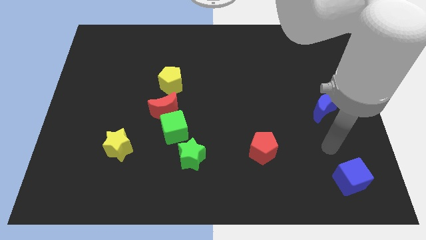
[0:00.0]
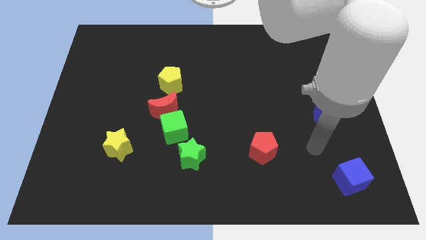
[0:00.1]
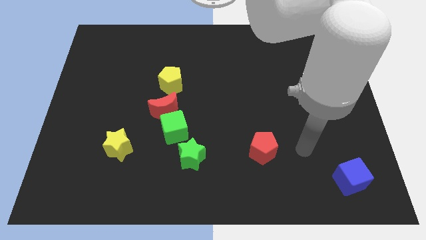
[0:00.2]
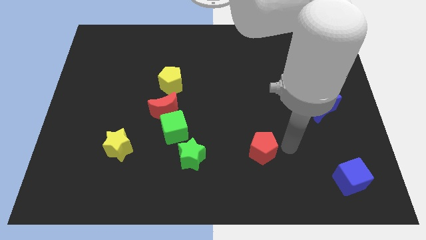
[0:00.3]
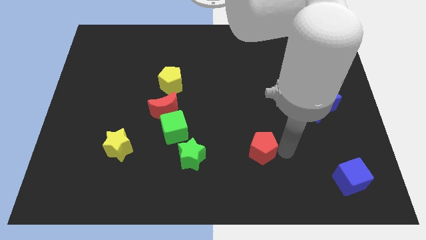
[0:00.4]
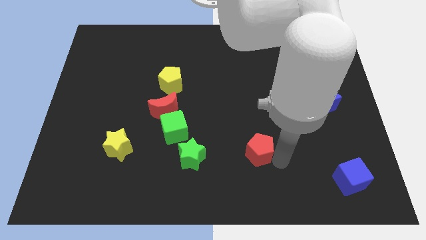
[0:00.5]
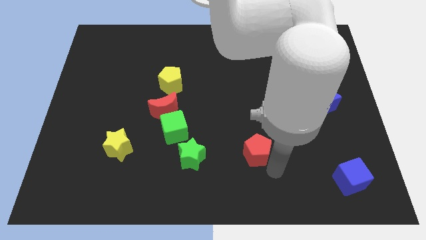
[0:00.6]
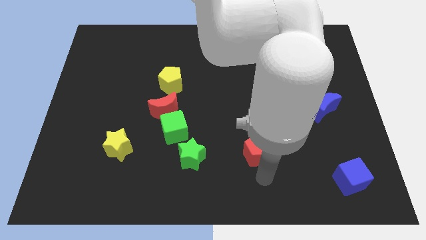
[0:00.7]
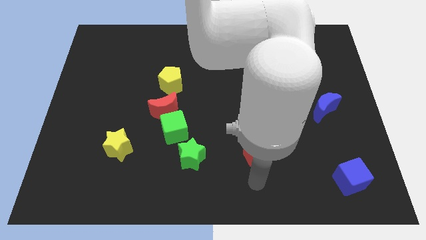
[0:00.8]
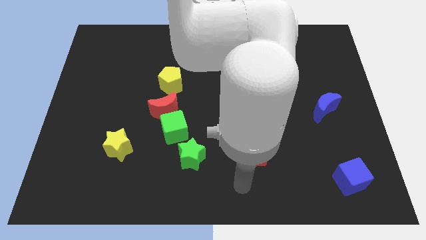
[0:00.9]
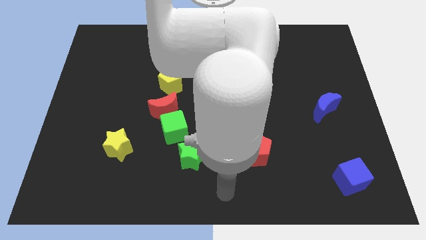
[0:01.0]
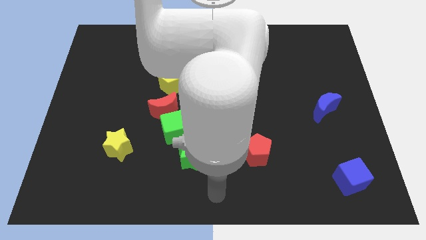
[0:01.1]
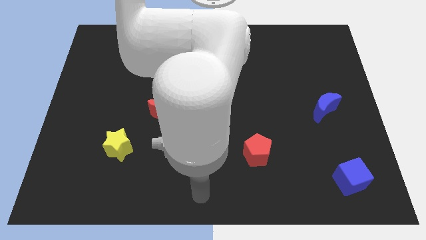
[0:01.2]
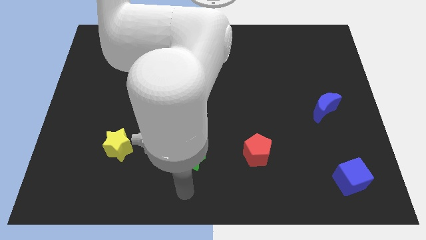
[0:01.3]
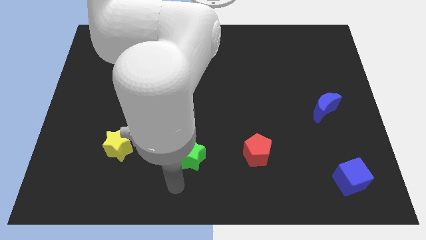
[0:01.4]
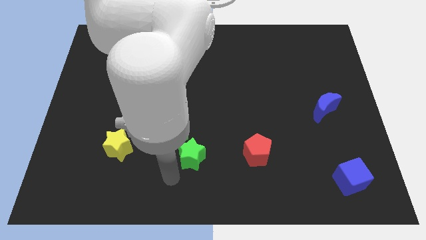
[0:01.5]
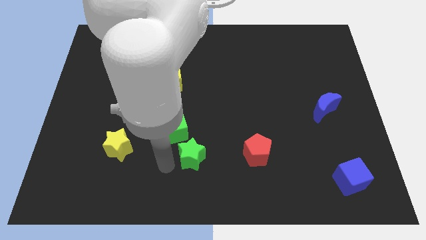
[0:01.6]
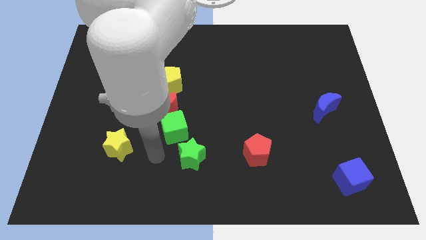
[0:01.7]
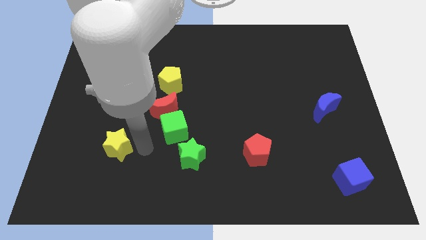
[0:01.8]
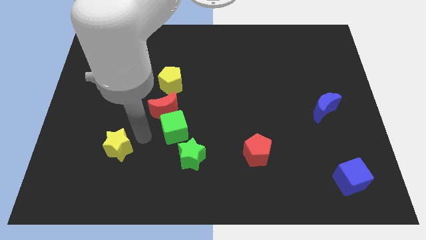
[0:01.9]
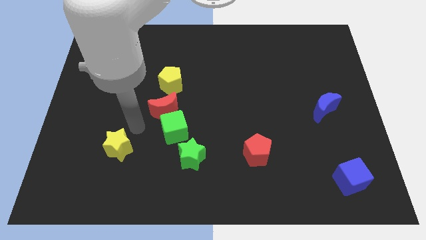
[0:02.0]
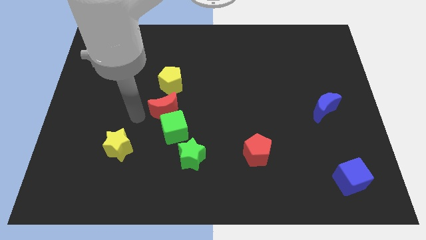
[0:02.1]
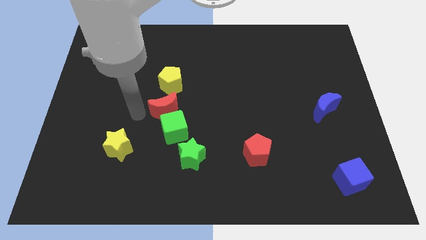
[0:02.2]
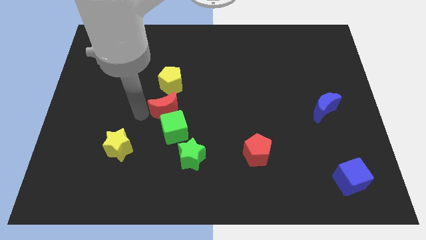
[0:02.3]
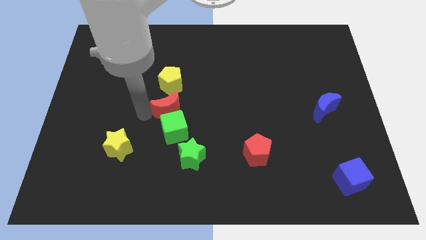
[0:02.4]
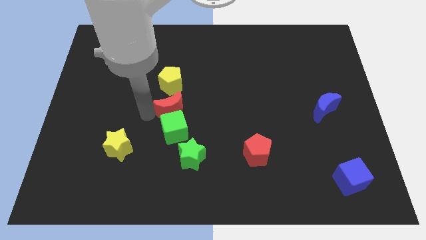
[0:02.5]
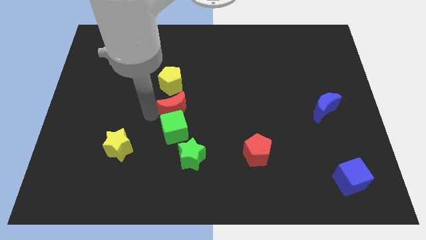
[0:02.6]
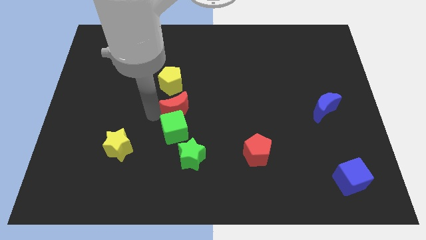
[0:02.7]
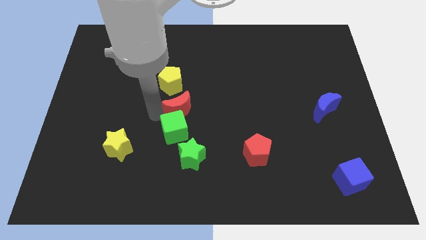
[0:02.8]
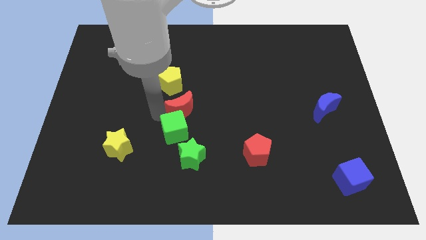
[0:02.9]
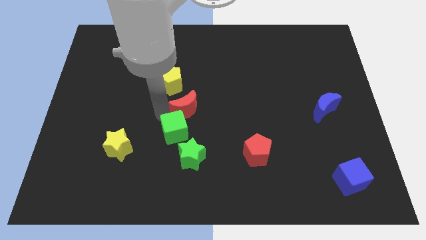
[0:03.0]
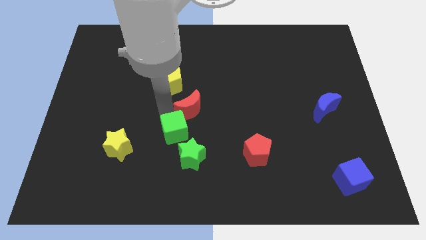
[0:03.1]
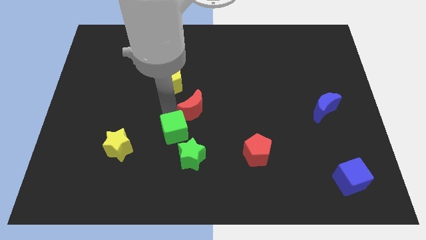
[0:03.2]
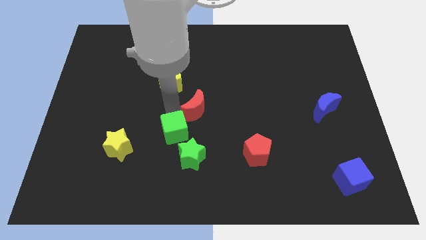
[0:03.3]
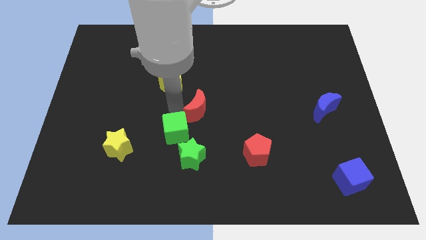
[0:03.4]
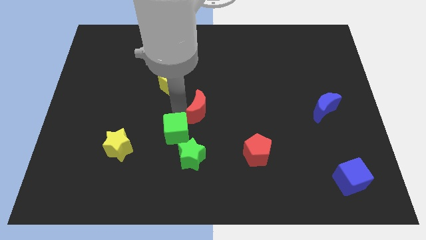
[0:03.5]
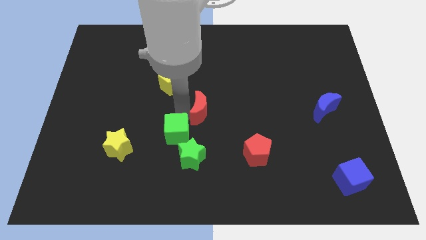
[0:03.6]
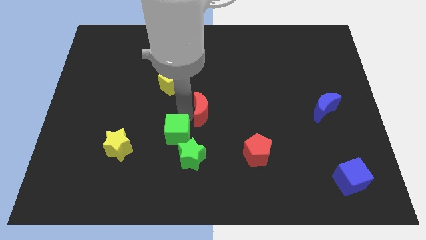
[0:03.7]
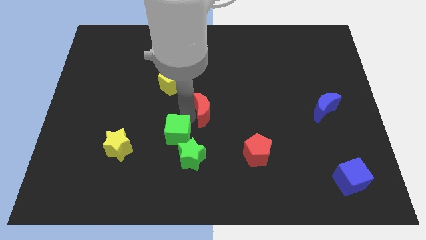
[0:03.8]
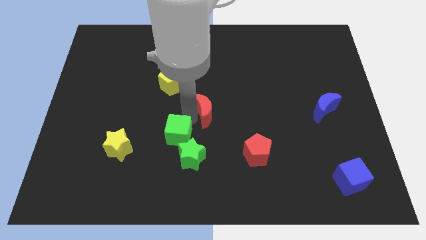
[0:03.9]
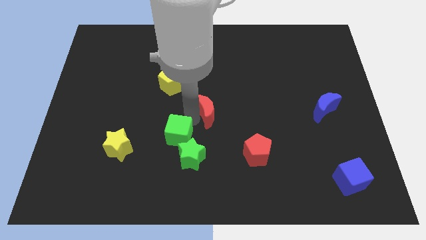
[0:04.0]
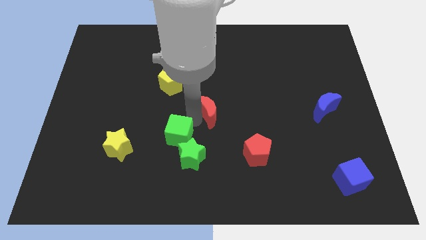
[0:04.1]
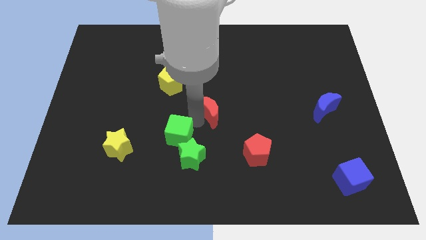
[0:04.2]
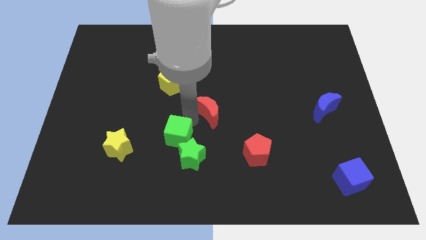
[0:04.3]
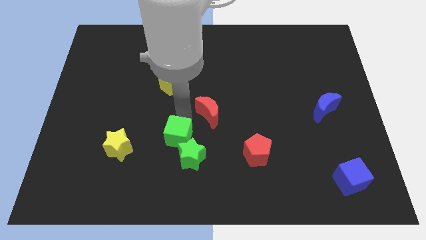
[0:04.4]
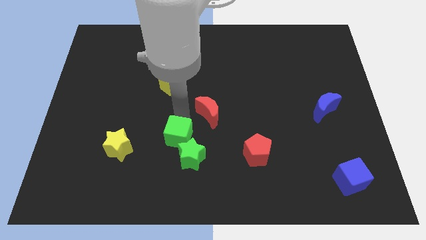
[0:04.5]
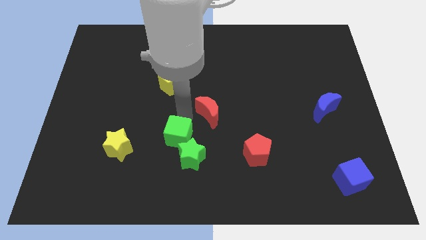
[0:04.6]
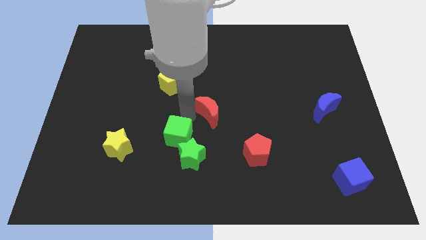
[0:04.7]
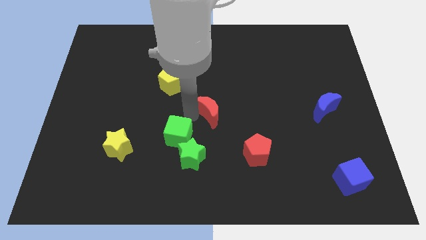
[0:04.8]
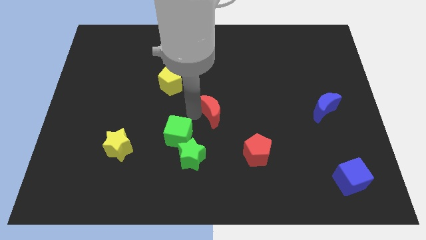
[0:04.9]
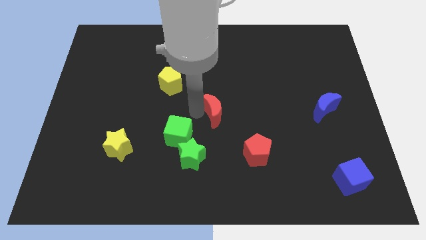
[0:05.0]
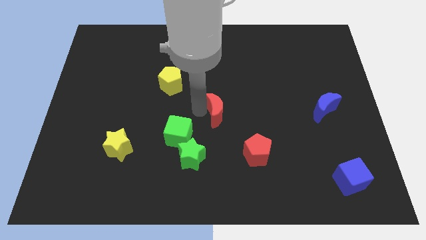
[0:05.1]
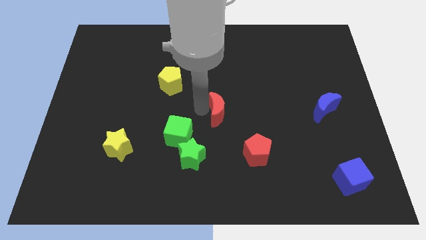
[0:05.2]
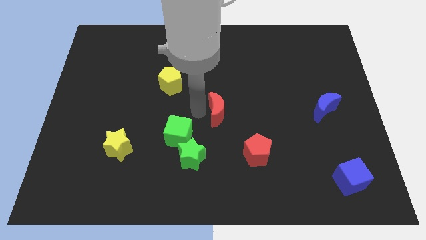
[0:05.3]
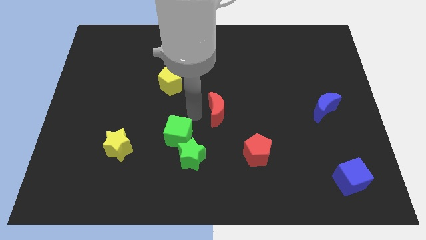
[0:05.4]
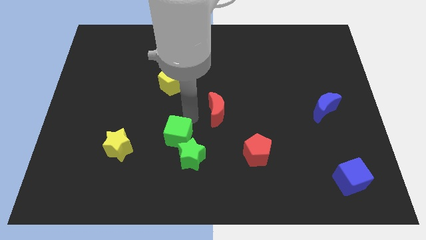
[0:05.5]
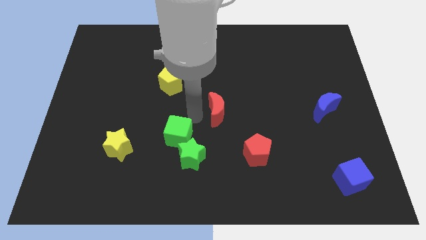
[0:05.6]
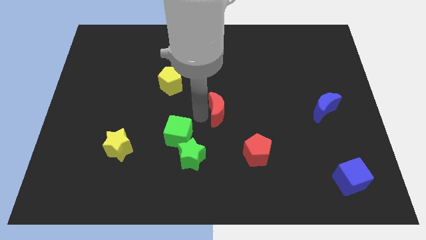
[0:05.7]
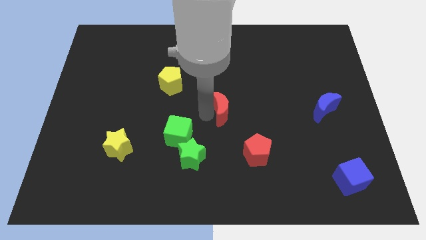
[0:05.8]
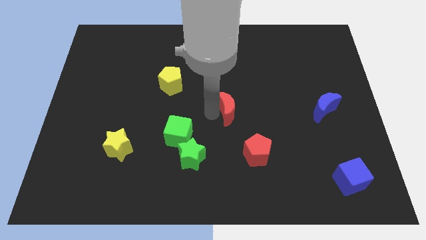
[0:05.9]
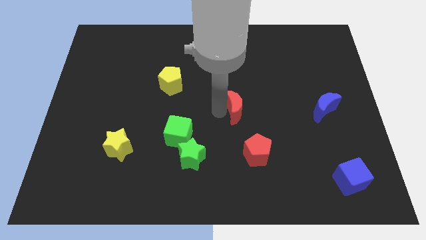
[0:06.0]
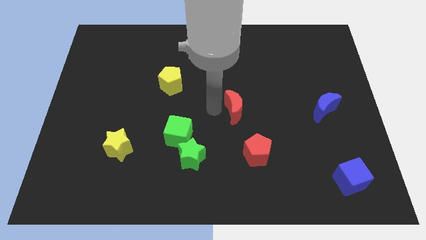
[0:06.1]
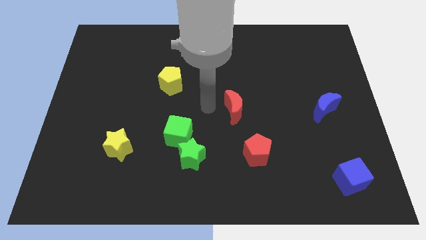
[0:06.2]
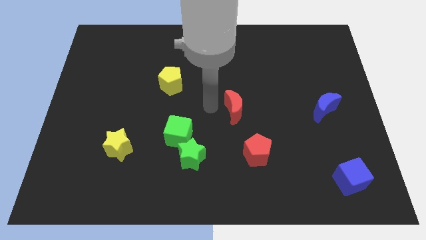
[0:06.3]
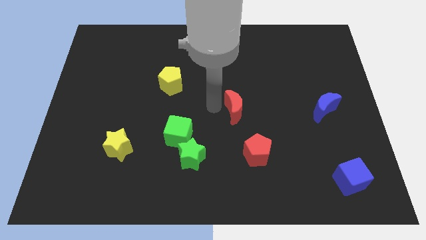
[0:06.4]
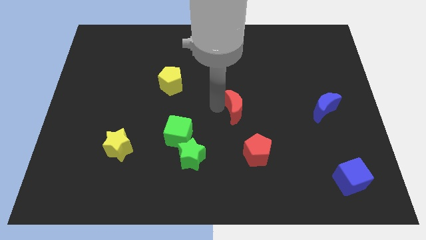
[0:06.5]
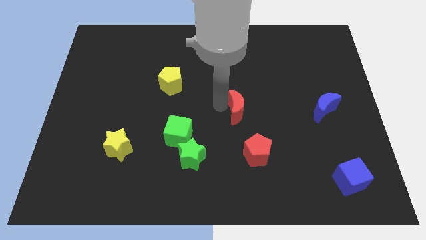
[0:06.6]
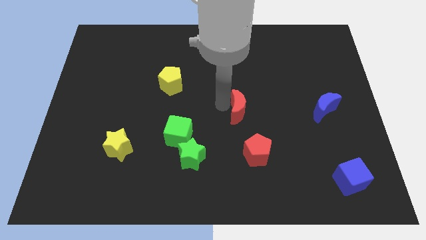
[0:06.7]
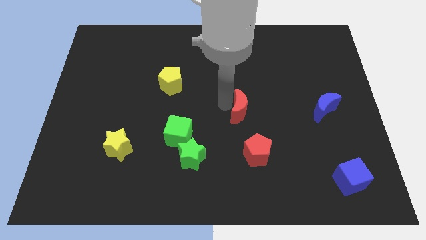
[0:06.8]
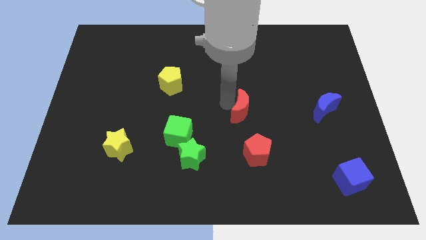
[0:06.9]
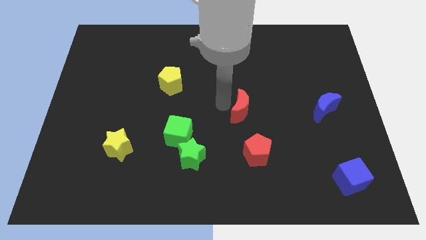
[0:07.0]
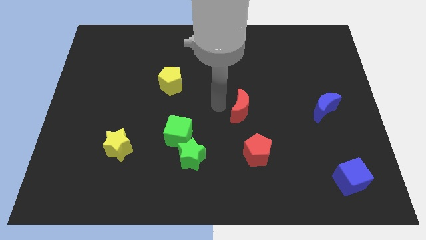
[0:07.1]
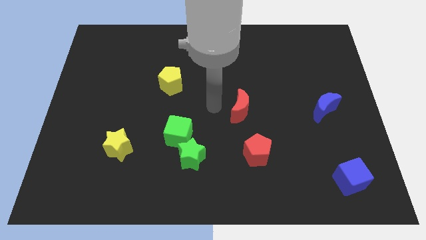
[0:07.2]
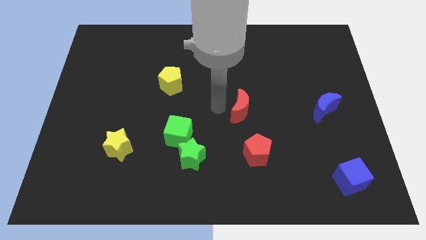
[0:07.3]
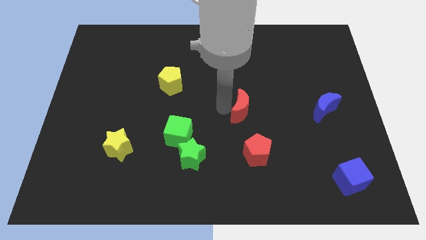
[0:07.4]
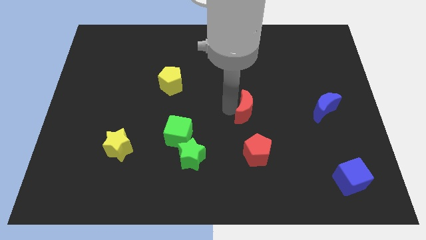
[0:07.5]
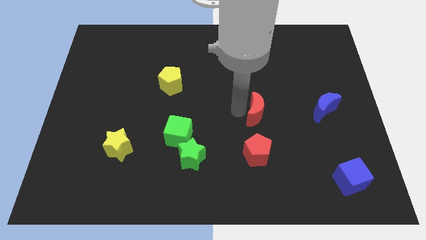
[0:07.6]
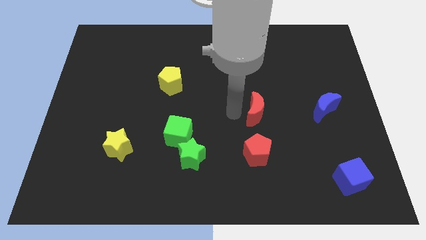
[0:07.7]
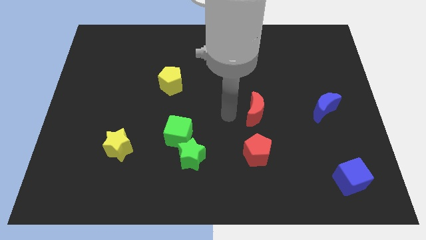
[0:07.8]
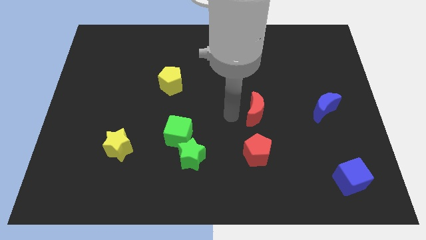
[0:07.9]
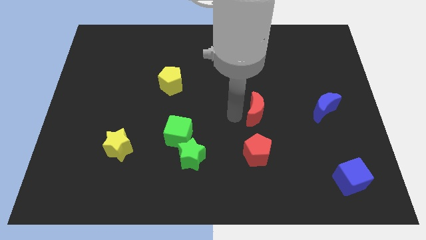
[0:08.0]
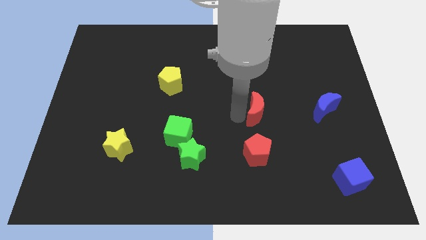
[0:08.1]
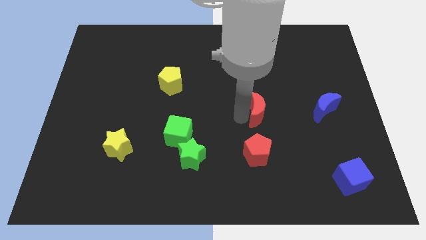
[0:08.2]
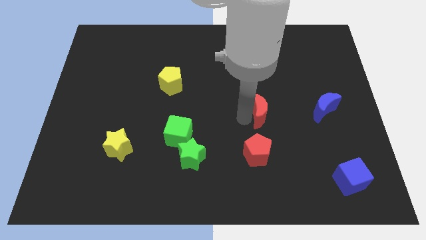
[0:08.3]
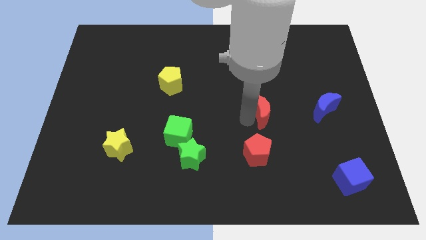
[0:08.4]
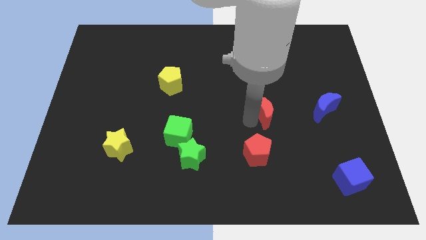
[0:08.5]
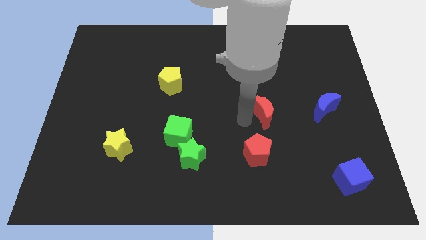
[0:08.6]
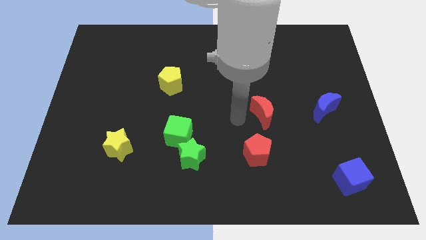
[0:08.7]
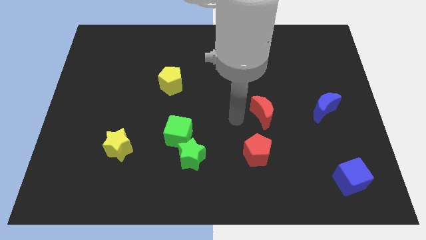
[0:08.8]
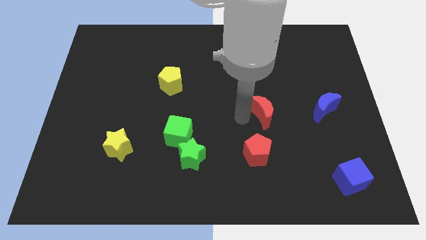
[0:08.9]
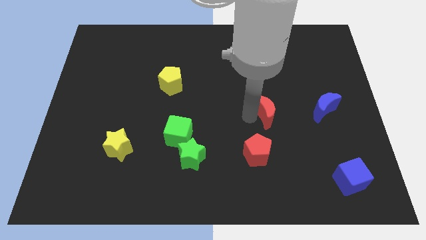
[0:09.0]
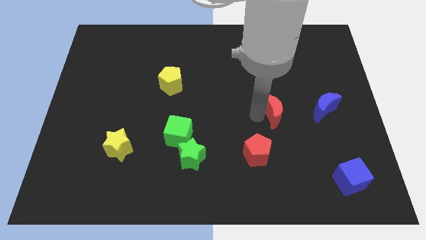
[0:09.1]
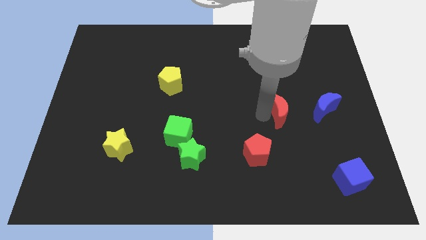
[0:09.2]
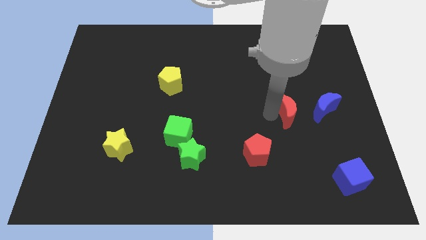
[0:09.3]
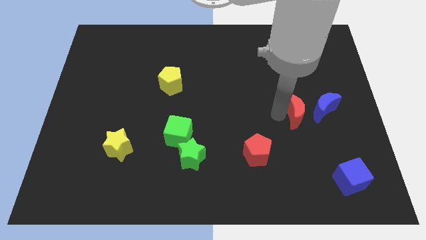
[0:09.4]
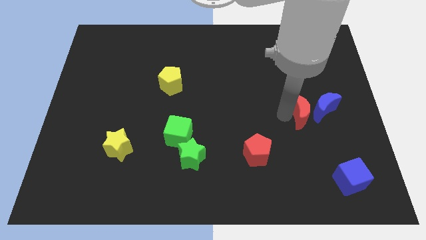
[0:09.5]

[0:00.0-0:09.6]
slide the red moon close to the blue moon
